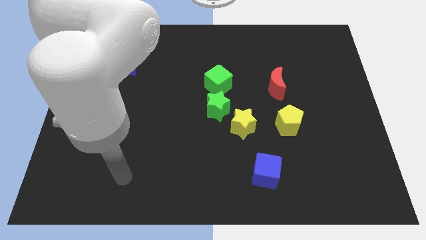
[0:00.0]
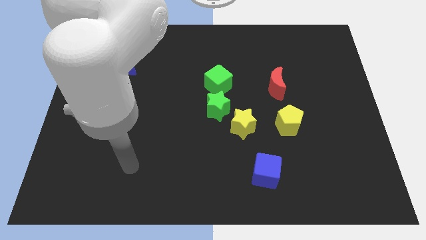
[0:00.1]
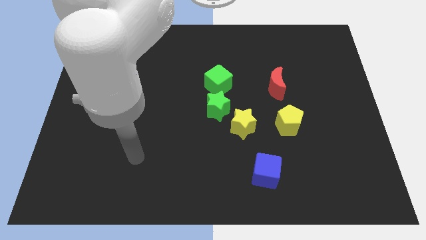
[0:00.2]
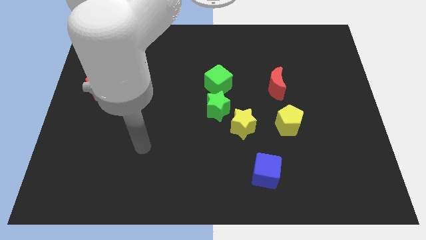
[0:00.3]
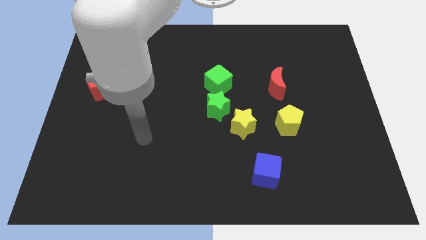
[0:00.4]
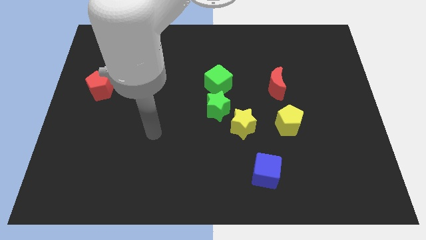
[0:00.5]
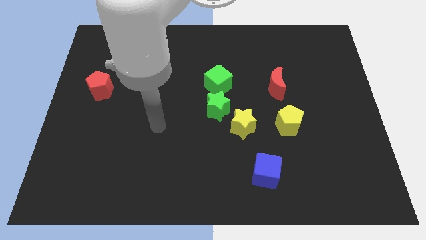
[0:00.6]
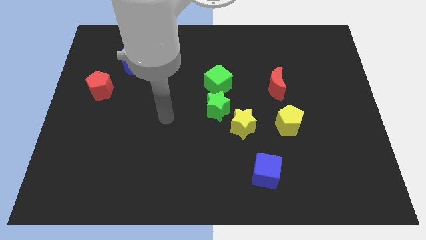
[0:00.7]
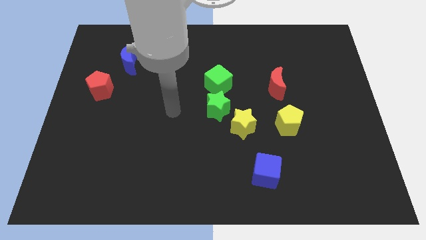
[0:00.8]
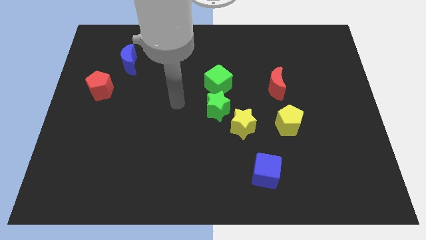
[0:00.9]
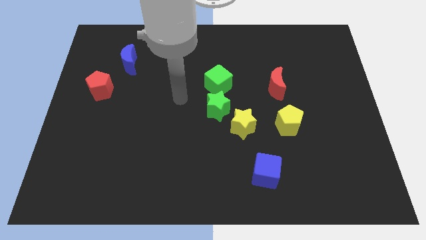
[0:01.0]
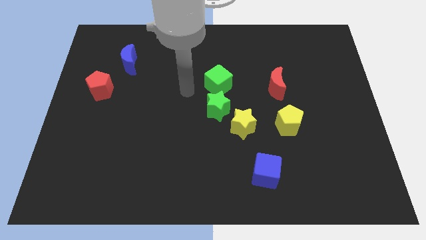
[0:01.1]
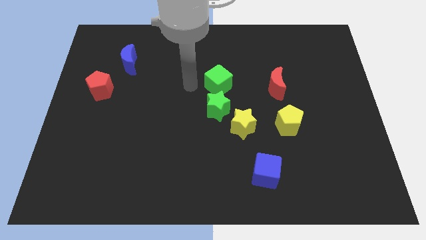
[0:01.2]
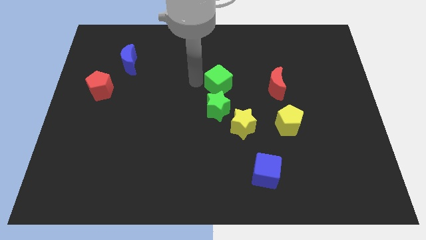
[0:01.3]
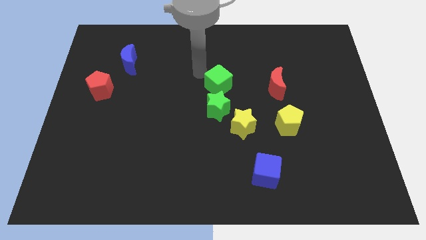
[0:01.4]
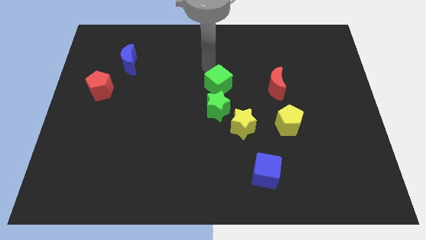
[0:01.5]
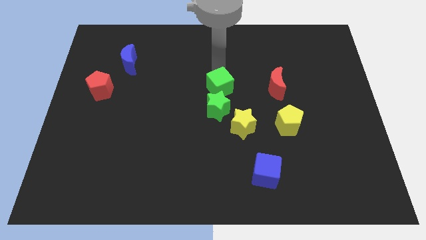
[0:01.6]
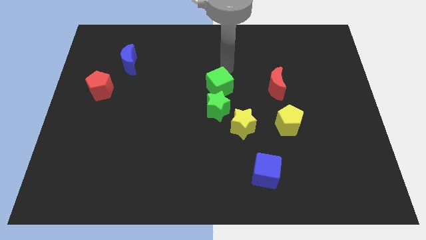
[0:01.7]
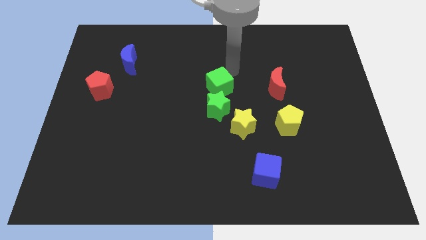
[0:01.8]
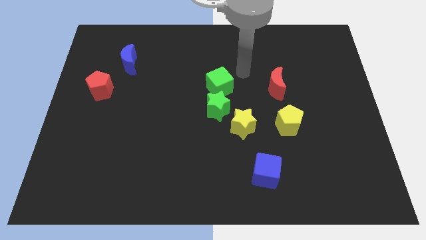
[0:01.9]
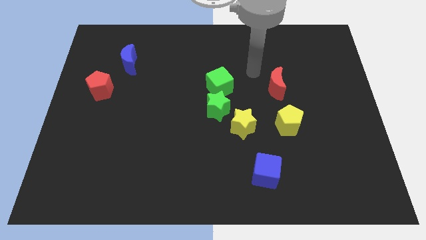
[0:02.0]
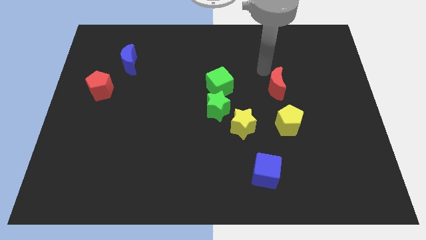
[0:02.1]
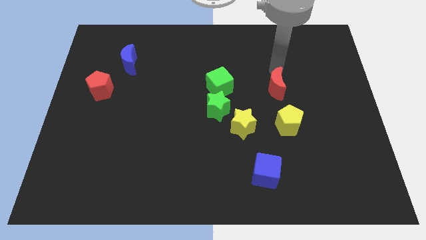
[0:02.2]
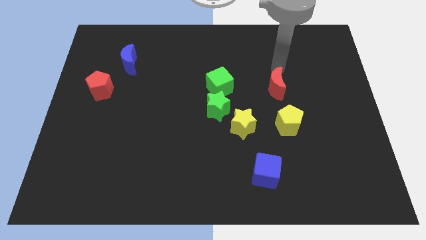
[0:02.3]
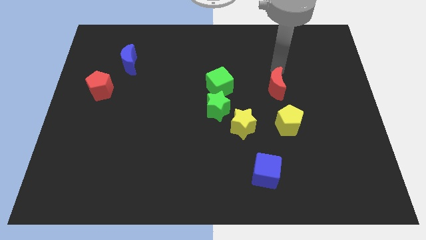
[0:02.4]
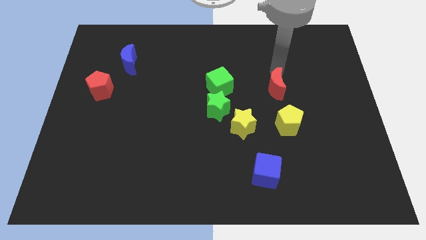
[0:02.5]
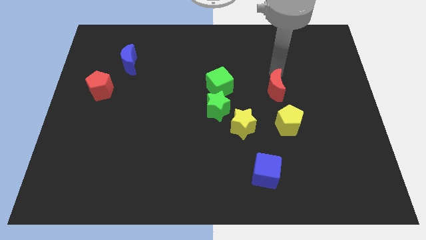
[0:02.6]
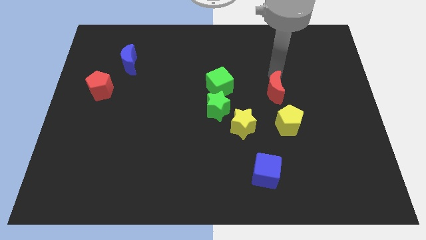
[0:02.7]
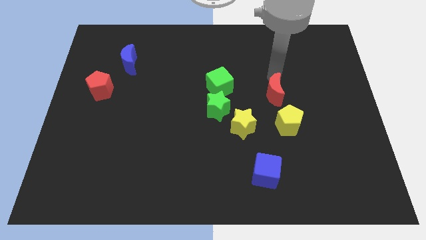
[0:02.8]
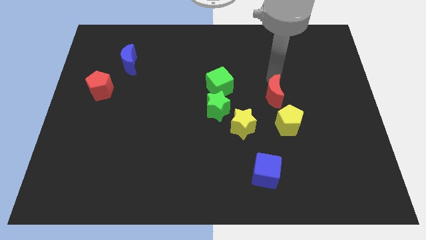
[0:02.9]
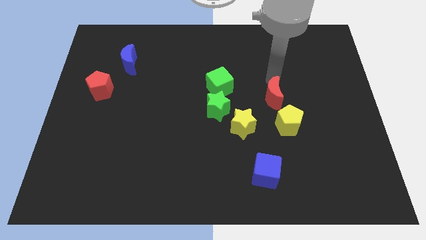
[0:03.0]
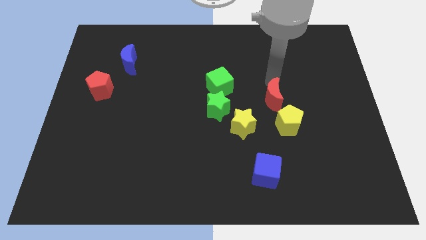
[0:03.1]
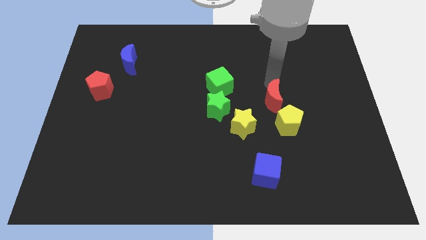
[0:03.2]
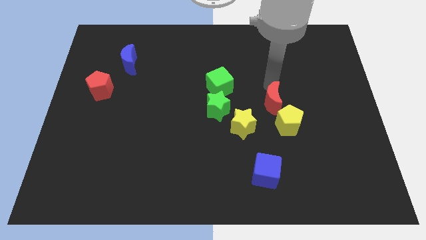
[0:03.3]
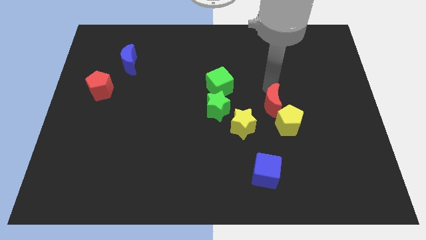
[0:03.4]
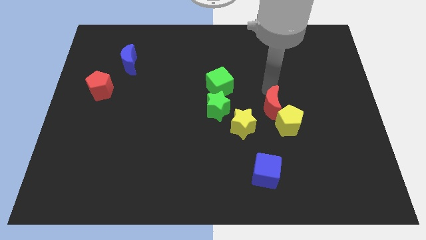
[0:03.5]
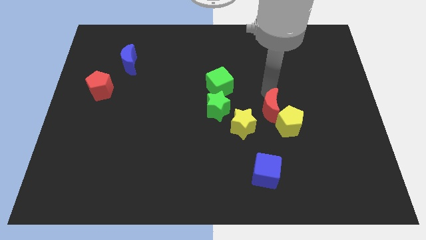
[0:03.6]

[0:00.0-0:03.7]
slide the red moon a little down

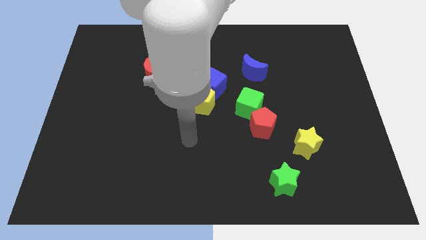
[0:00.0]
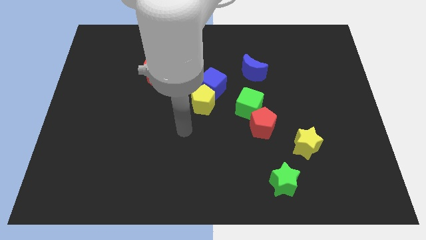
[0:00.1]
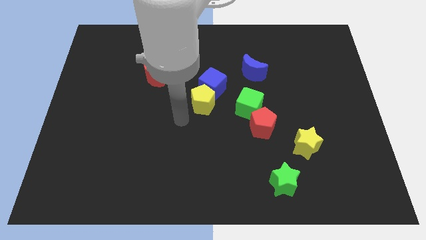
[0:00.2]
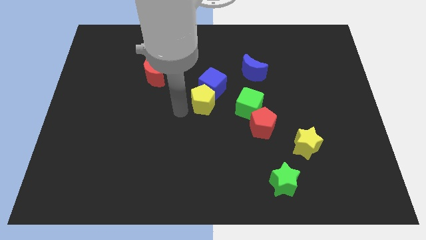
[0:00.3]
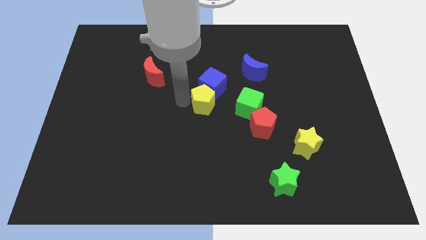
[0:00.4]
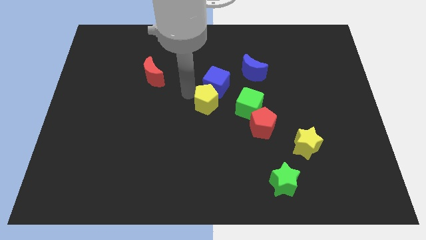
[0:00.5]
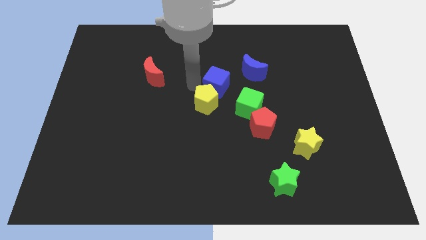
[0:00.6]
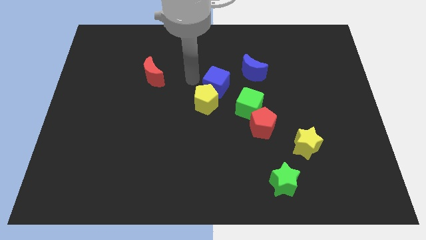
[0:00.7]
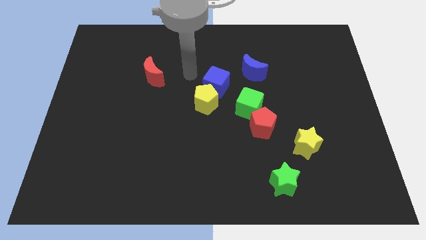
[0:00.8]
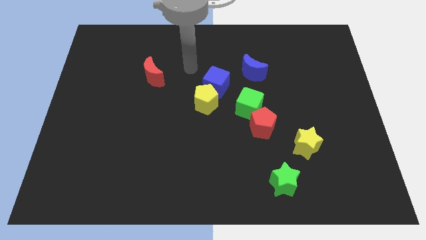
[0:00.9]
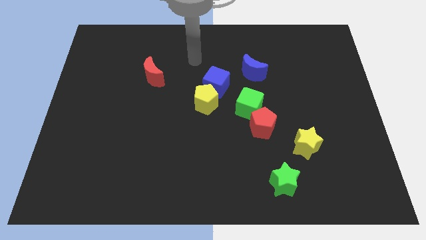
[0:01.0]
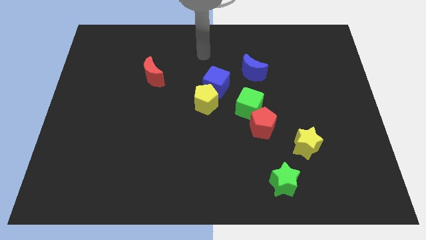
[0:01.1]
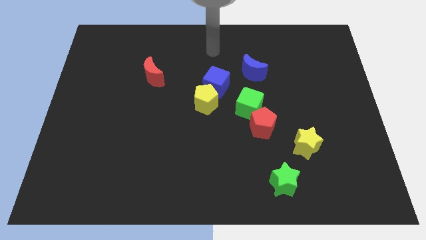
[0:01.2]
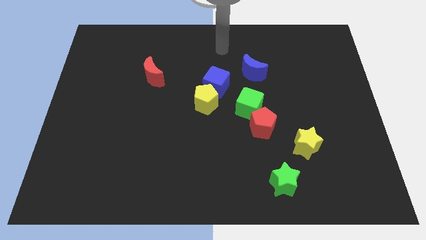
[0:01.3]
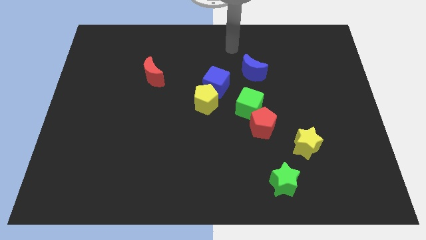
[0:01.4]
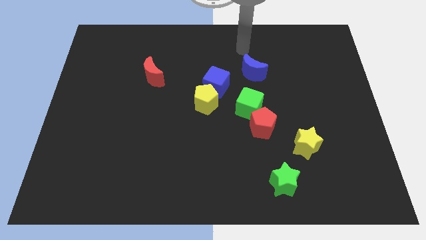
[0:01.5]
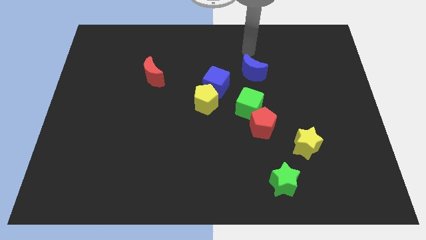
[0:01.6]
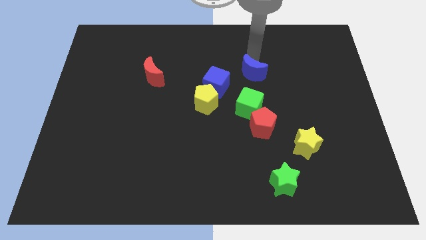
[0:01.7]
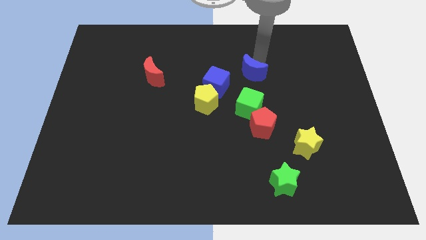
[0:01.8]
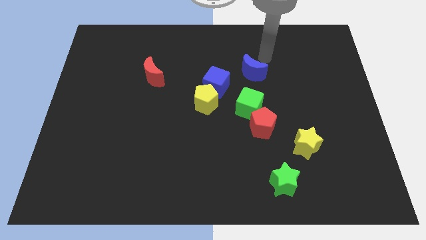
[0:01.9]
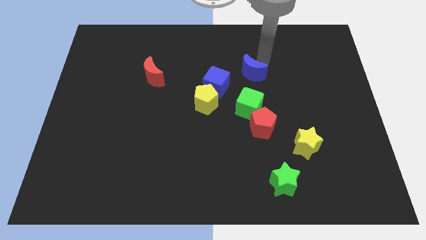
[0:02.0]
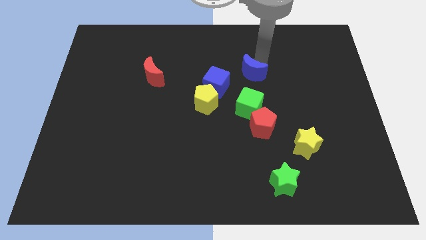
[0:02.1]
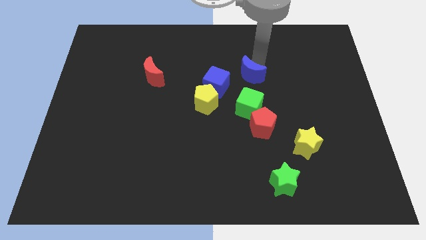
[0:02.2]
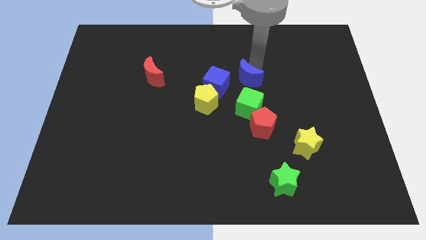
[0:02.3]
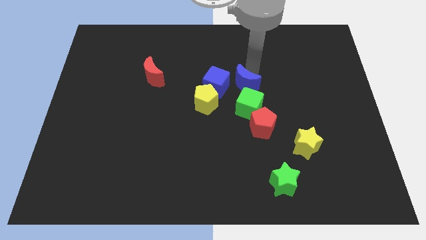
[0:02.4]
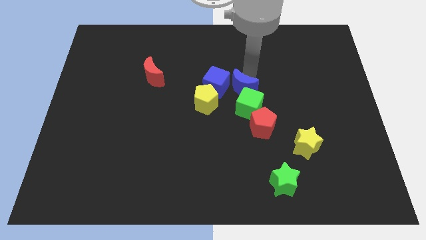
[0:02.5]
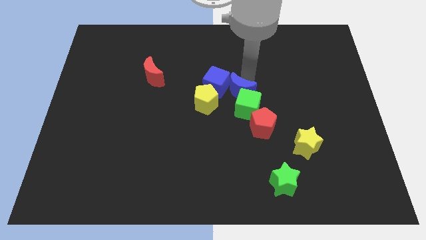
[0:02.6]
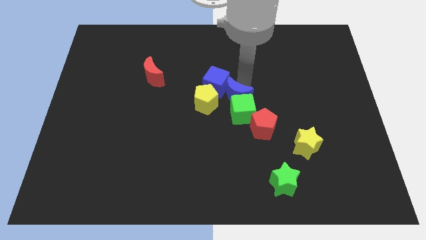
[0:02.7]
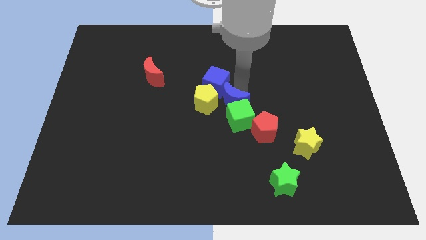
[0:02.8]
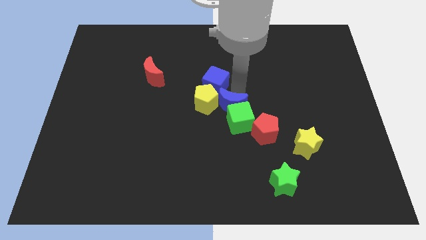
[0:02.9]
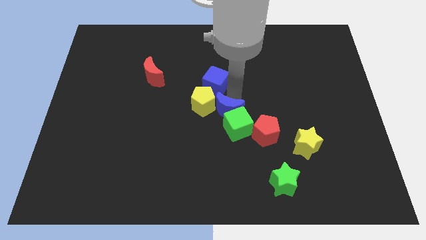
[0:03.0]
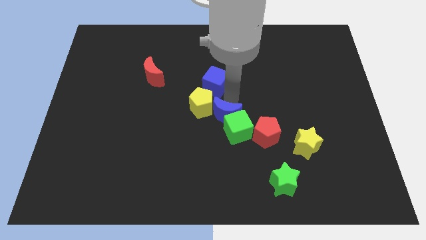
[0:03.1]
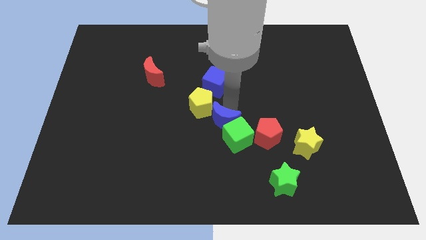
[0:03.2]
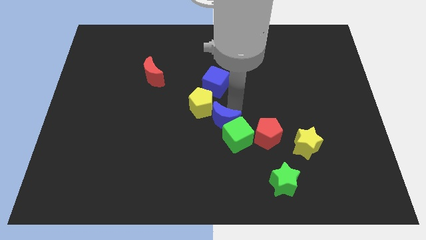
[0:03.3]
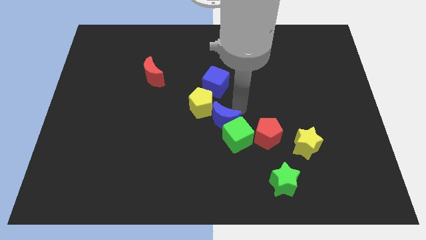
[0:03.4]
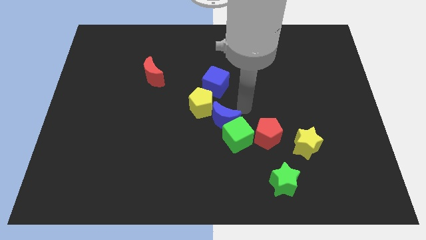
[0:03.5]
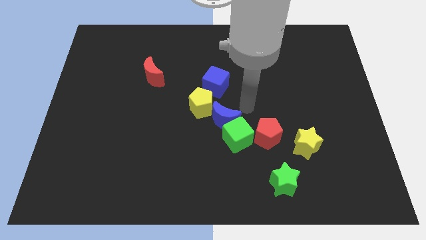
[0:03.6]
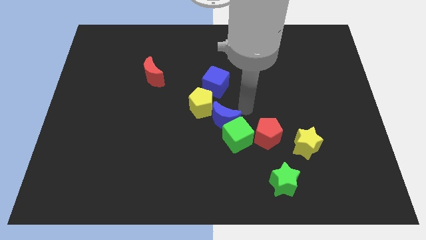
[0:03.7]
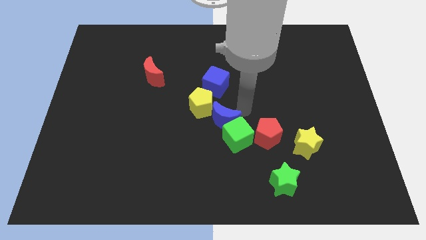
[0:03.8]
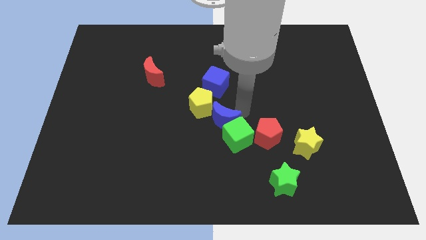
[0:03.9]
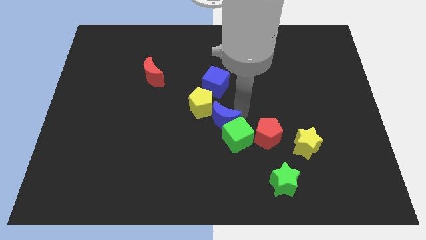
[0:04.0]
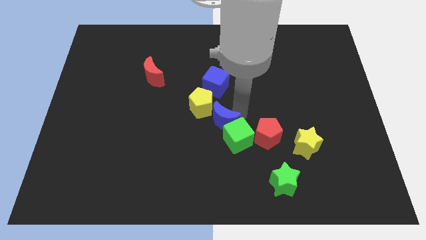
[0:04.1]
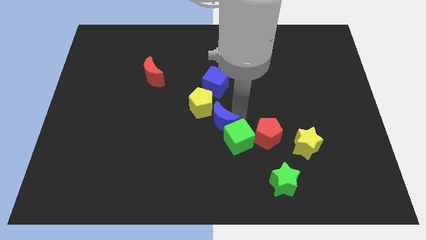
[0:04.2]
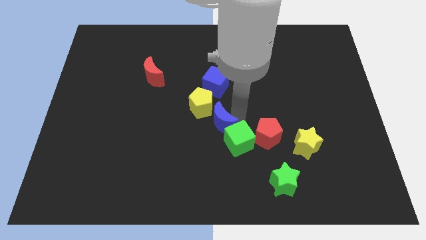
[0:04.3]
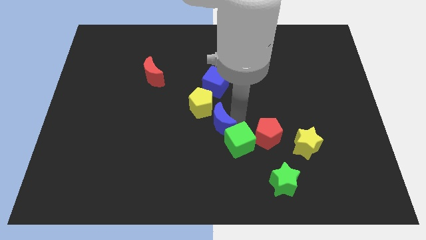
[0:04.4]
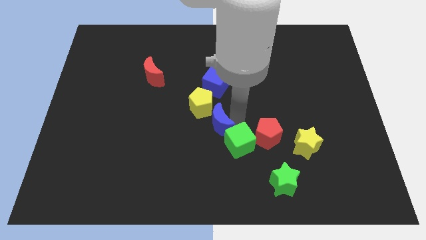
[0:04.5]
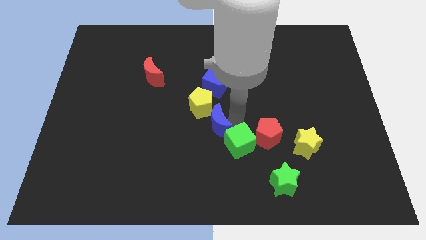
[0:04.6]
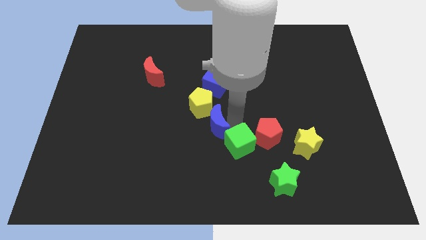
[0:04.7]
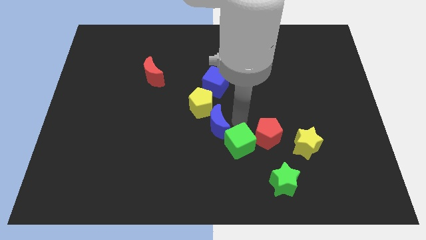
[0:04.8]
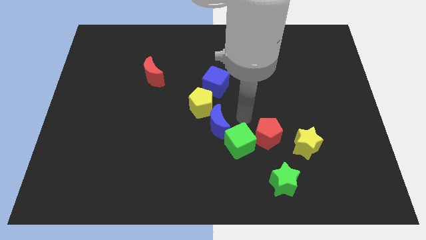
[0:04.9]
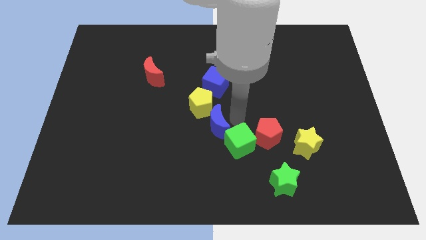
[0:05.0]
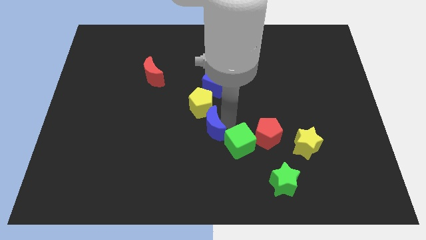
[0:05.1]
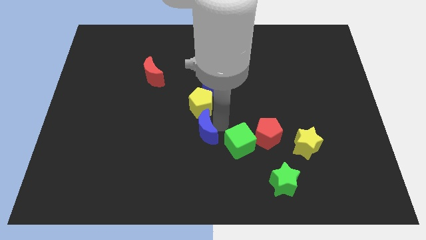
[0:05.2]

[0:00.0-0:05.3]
slide the blue moon down and to the left
